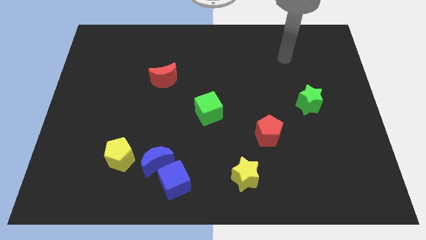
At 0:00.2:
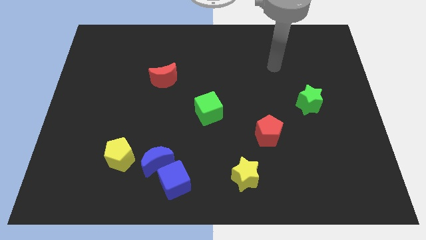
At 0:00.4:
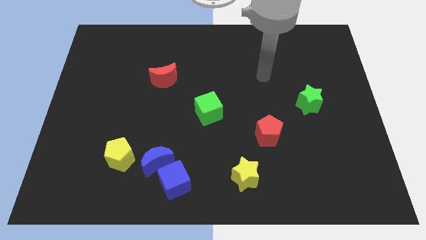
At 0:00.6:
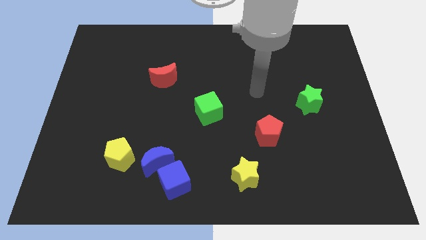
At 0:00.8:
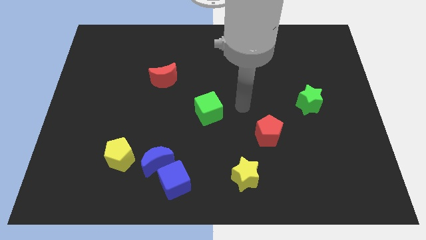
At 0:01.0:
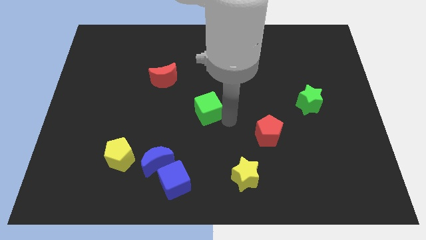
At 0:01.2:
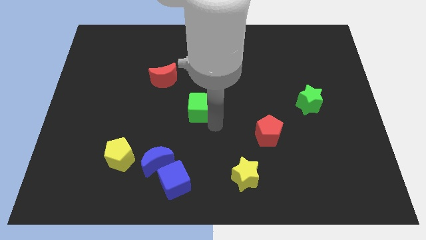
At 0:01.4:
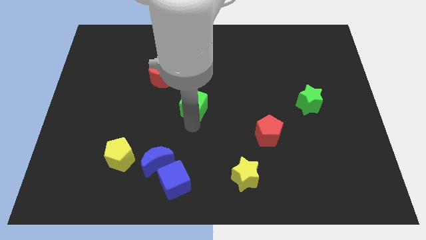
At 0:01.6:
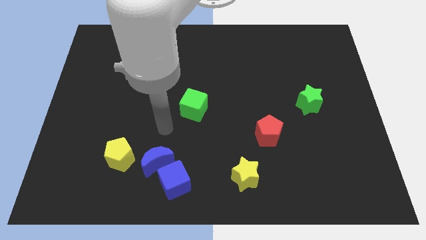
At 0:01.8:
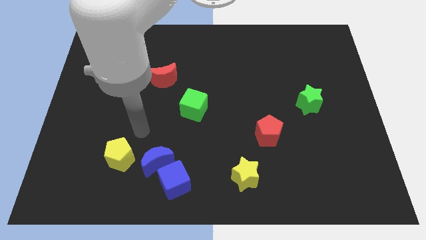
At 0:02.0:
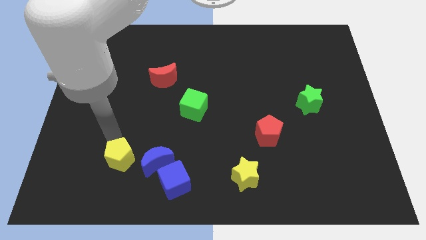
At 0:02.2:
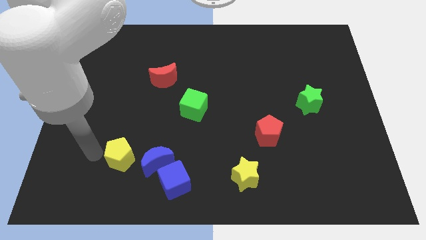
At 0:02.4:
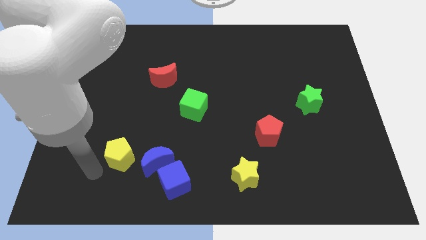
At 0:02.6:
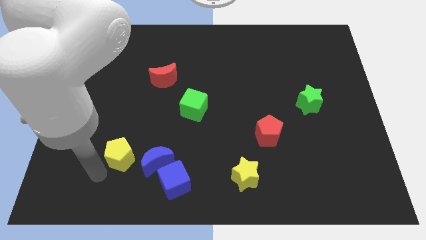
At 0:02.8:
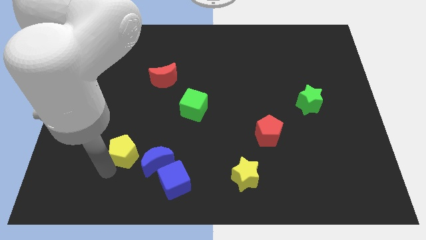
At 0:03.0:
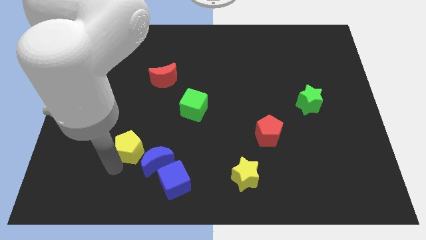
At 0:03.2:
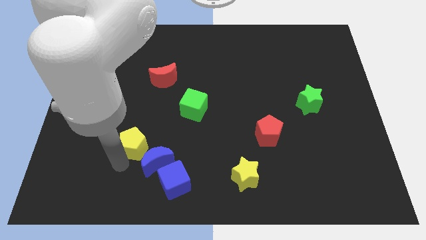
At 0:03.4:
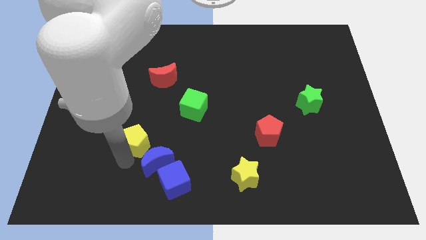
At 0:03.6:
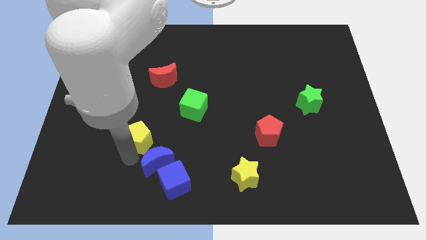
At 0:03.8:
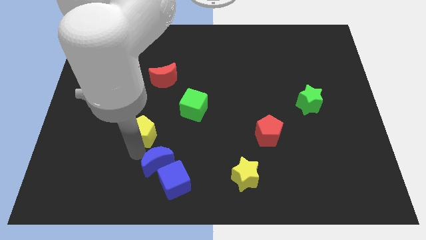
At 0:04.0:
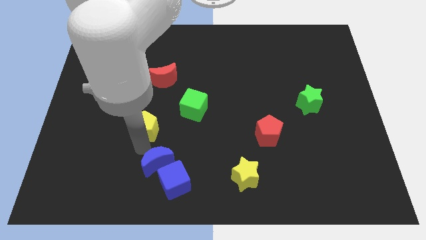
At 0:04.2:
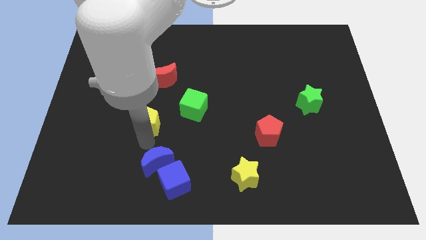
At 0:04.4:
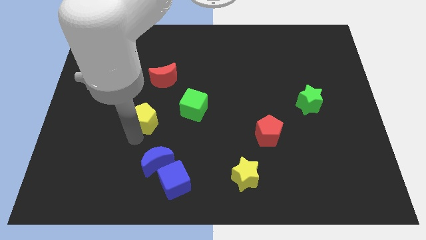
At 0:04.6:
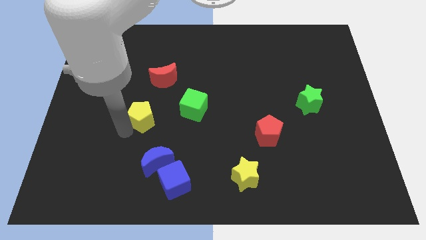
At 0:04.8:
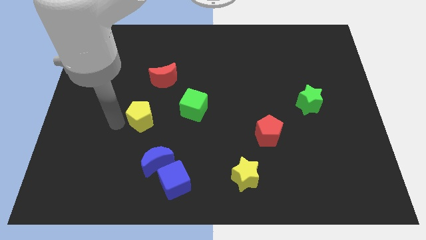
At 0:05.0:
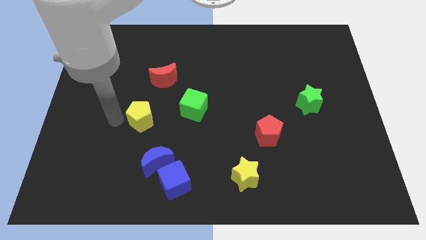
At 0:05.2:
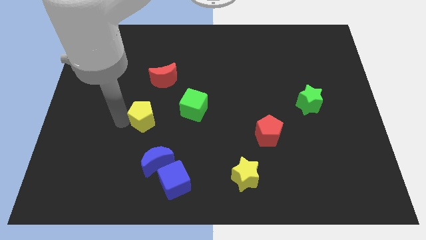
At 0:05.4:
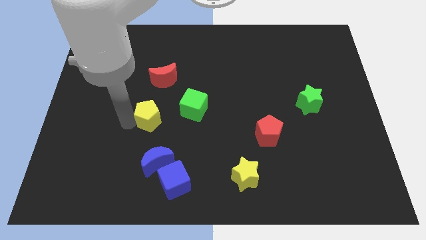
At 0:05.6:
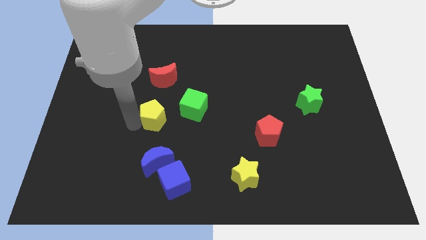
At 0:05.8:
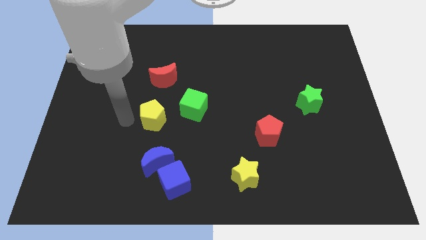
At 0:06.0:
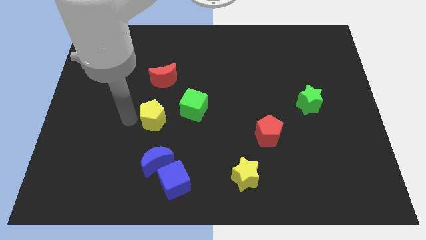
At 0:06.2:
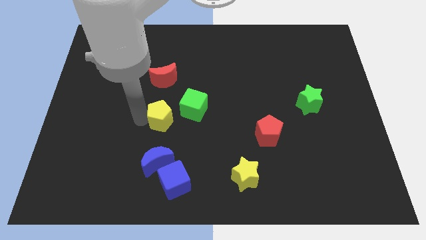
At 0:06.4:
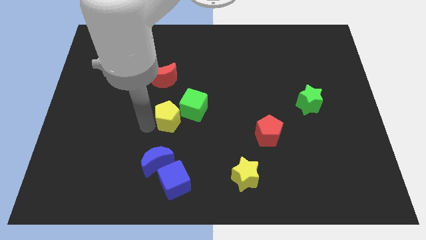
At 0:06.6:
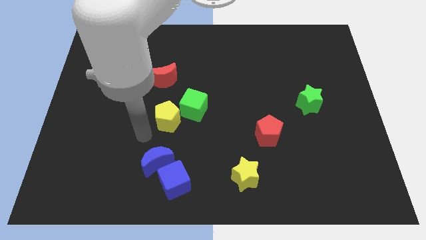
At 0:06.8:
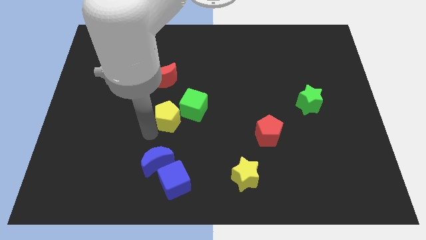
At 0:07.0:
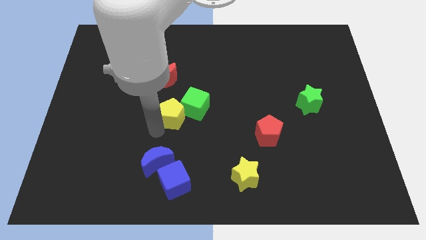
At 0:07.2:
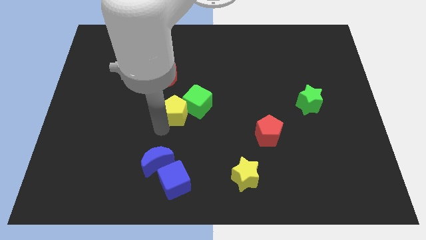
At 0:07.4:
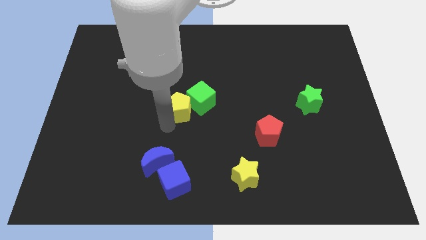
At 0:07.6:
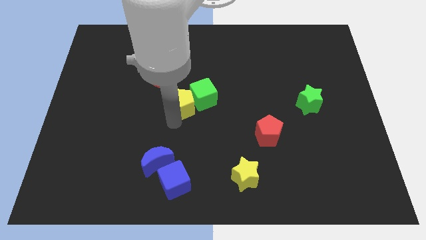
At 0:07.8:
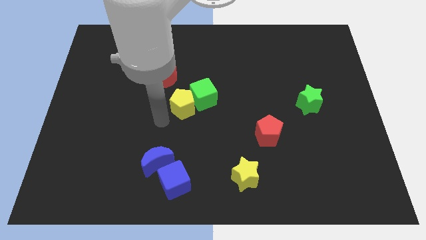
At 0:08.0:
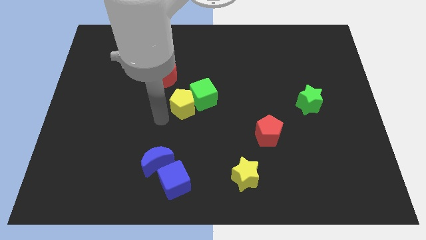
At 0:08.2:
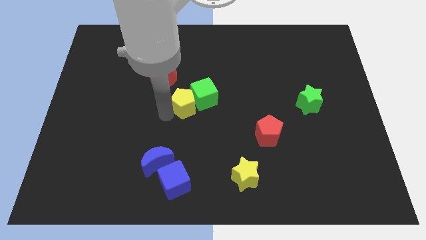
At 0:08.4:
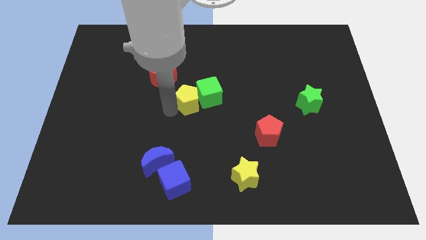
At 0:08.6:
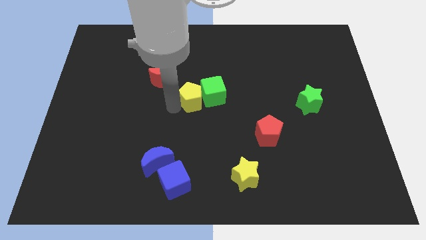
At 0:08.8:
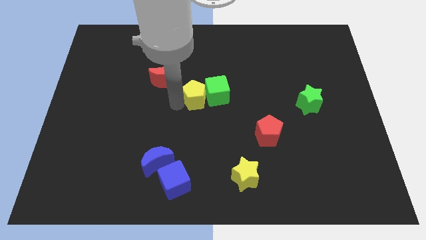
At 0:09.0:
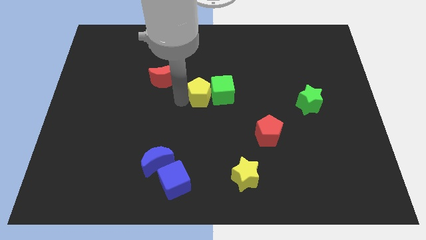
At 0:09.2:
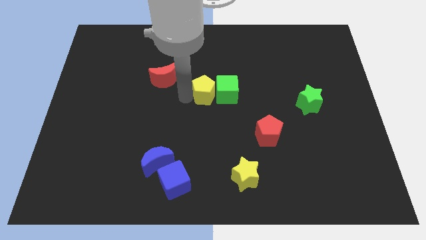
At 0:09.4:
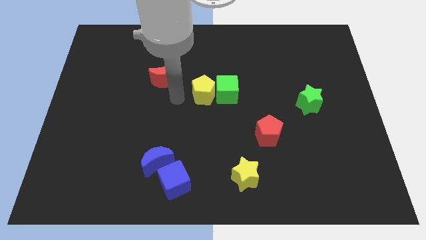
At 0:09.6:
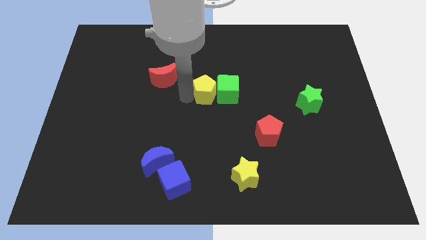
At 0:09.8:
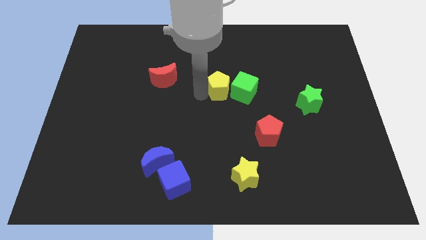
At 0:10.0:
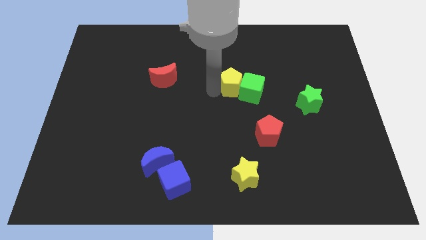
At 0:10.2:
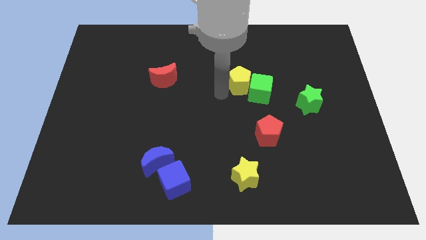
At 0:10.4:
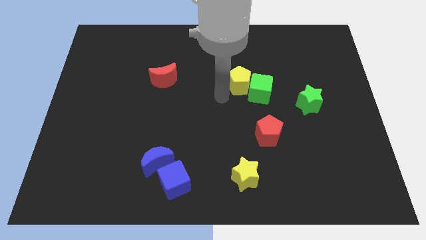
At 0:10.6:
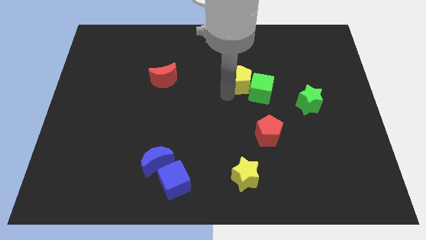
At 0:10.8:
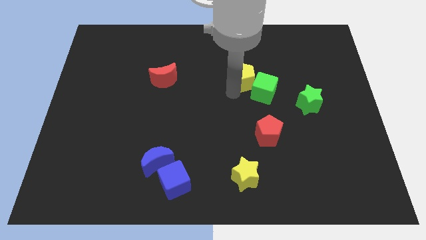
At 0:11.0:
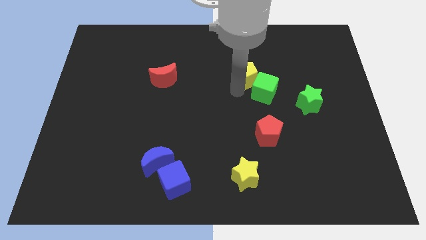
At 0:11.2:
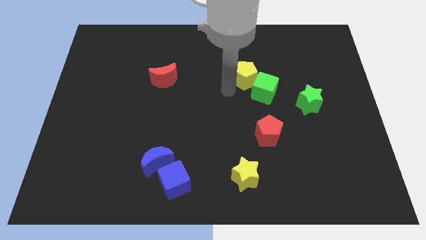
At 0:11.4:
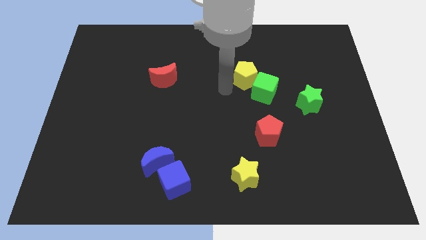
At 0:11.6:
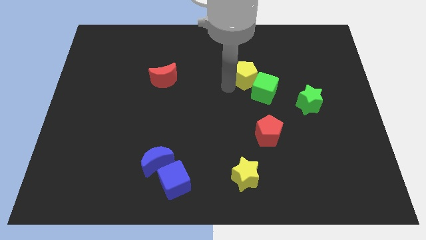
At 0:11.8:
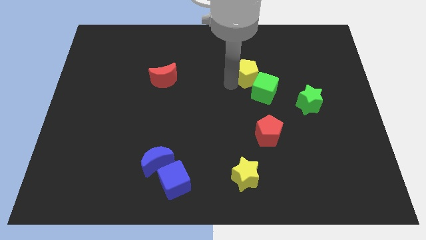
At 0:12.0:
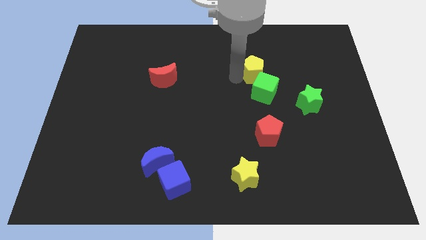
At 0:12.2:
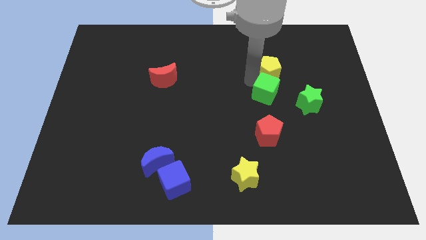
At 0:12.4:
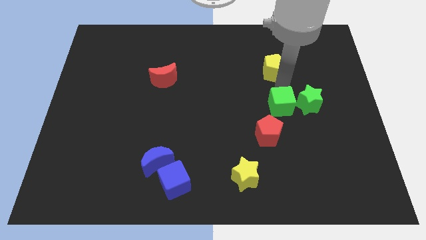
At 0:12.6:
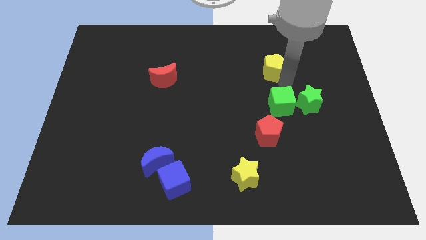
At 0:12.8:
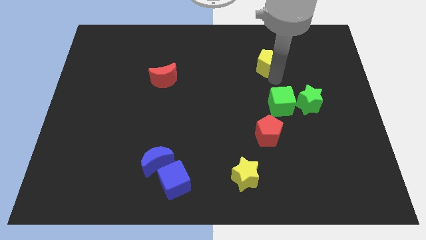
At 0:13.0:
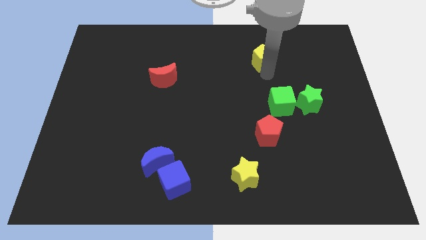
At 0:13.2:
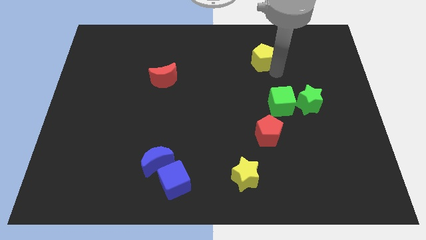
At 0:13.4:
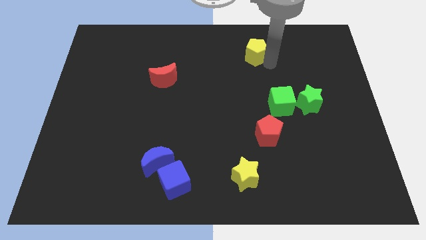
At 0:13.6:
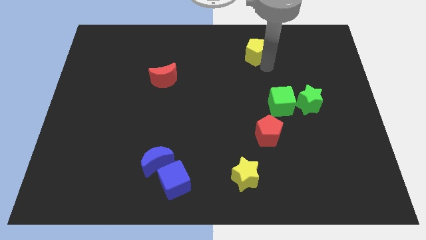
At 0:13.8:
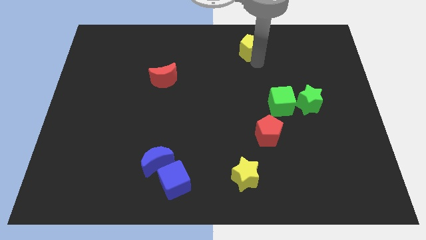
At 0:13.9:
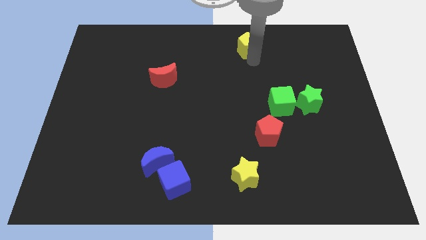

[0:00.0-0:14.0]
slide the yellow pentagon to the towards your base
